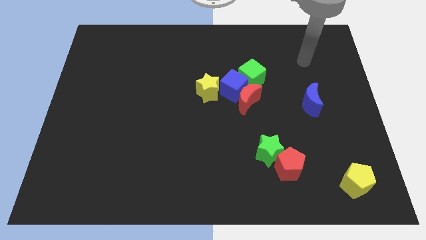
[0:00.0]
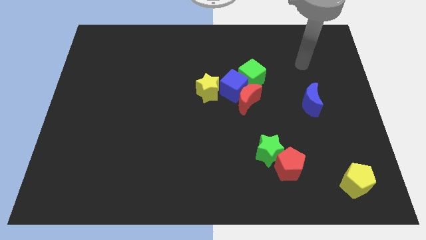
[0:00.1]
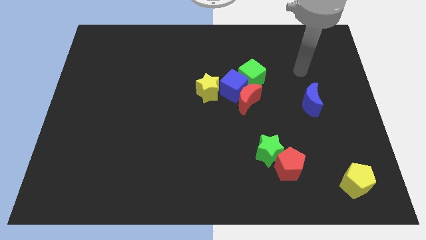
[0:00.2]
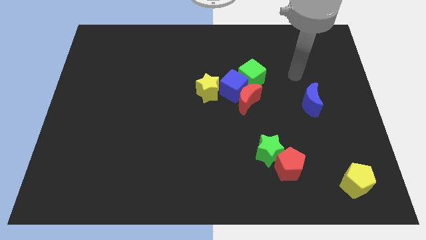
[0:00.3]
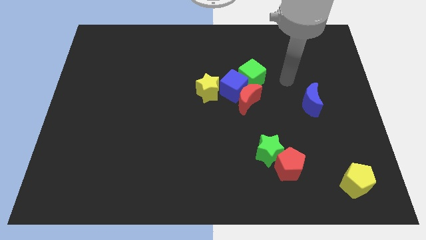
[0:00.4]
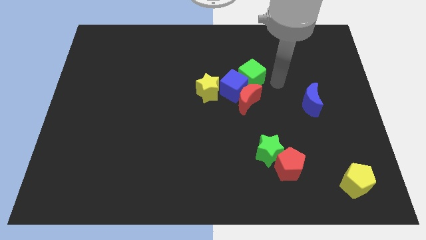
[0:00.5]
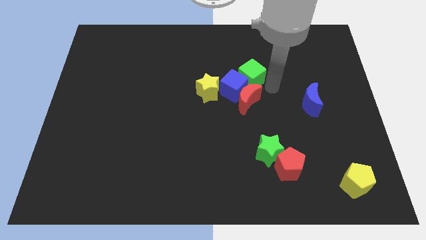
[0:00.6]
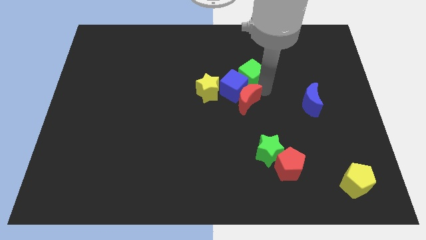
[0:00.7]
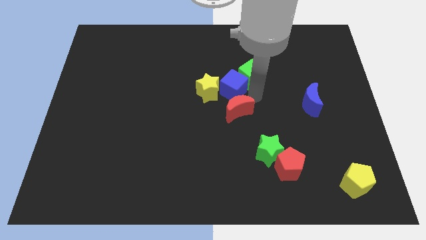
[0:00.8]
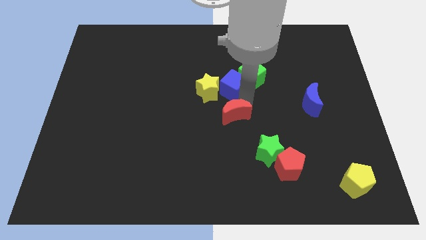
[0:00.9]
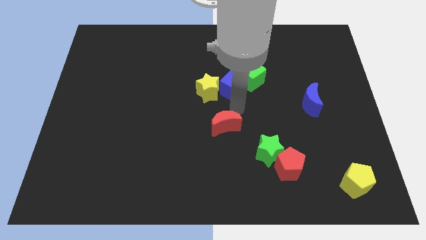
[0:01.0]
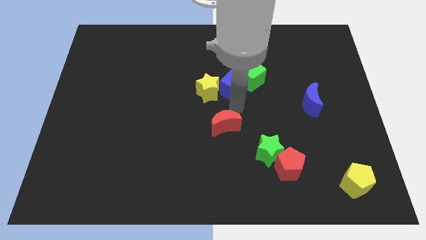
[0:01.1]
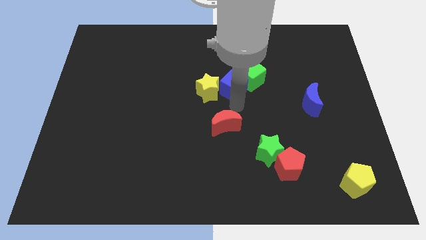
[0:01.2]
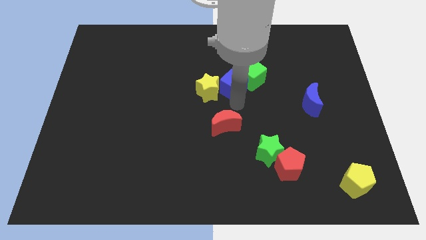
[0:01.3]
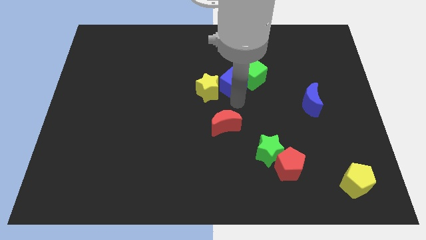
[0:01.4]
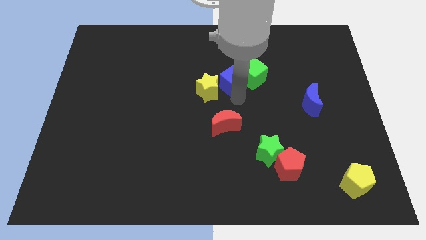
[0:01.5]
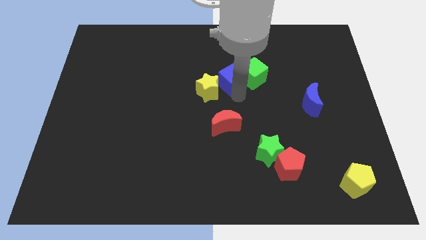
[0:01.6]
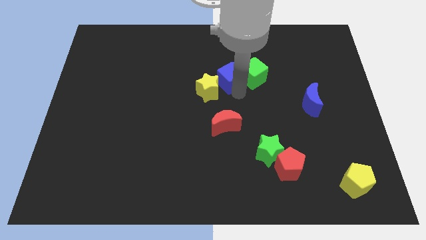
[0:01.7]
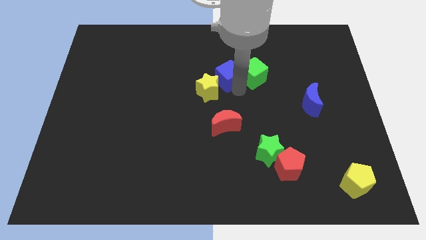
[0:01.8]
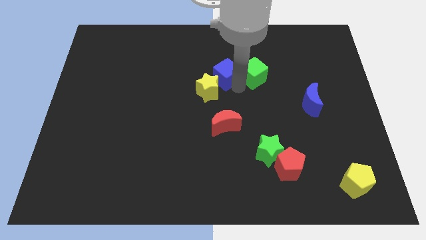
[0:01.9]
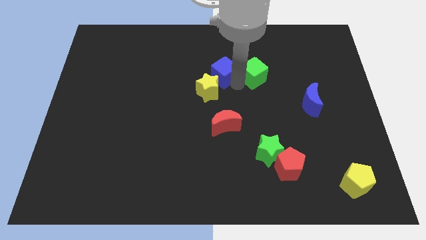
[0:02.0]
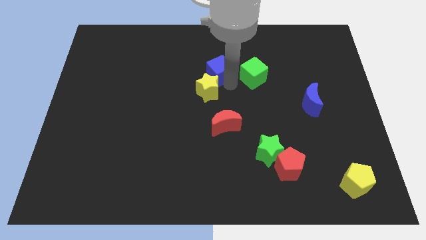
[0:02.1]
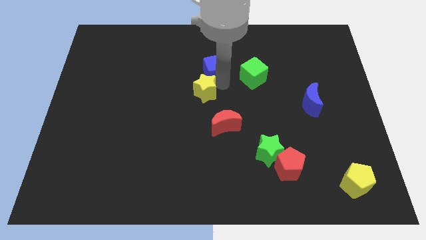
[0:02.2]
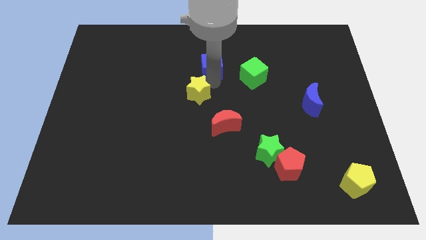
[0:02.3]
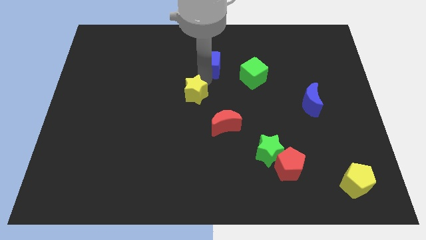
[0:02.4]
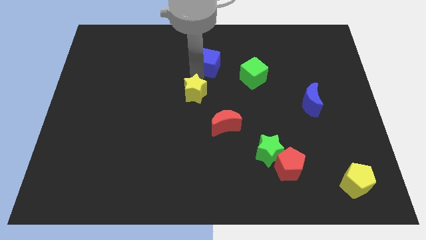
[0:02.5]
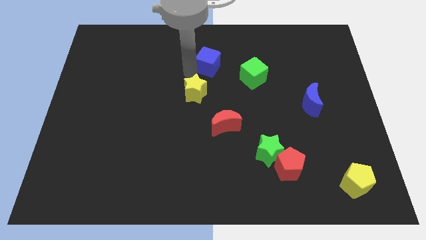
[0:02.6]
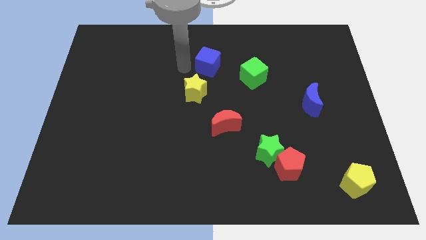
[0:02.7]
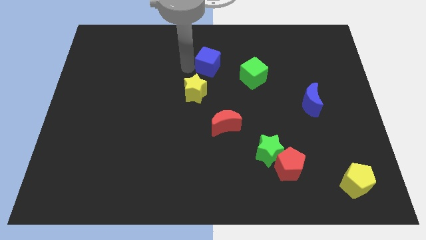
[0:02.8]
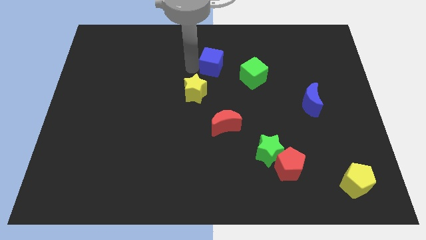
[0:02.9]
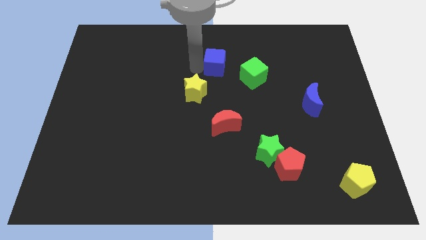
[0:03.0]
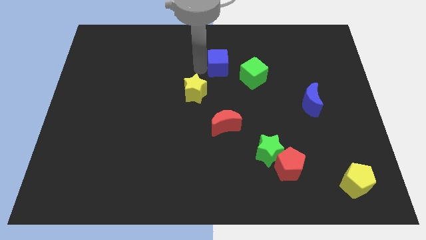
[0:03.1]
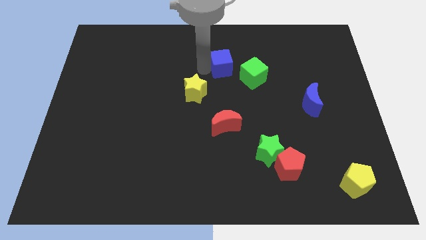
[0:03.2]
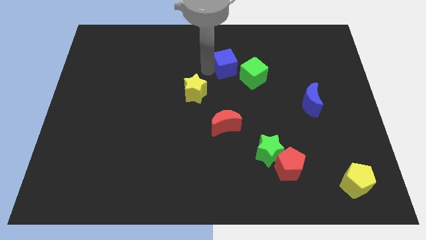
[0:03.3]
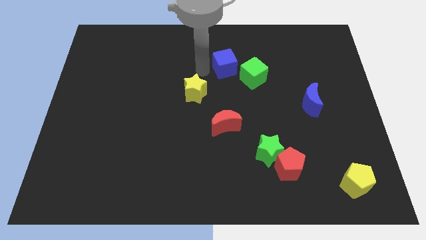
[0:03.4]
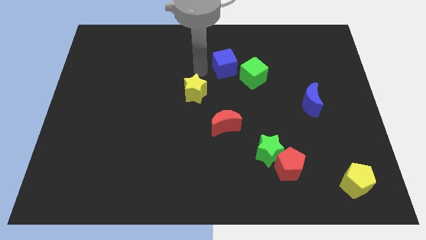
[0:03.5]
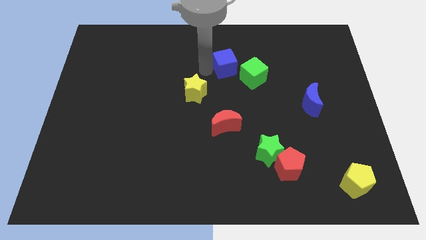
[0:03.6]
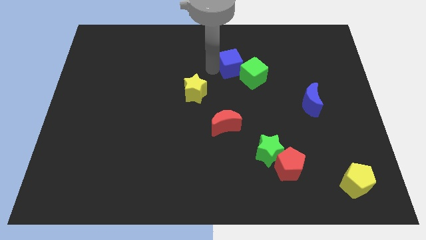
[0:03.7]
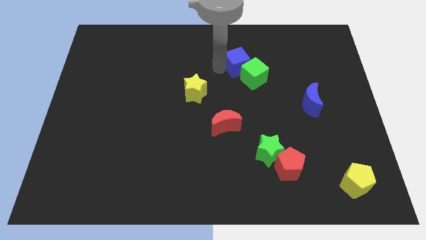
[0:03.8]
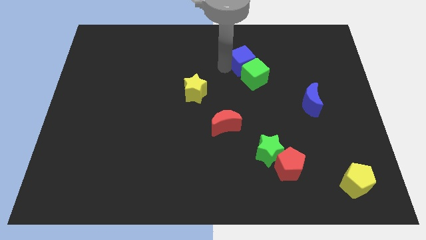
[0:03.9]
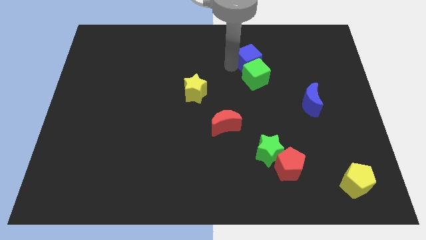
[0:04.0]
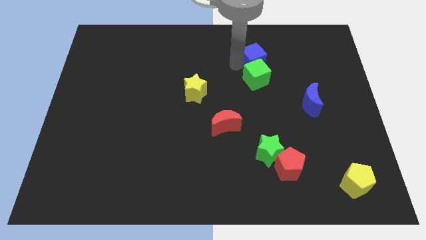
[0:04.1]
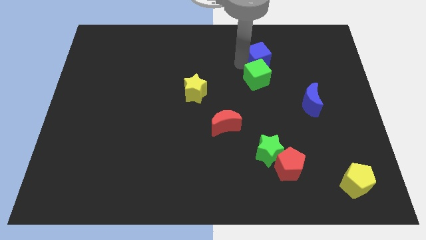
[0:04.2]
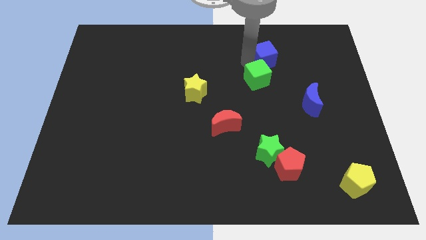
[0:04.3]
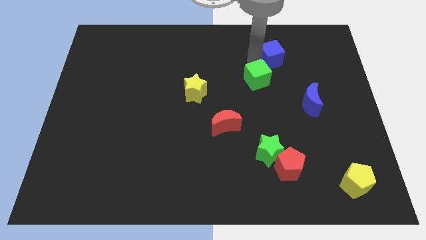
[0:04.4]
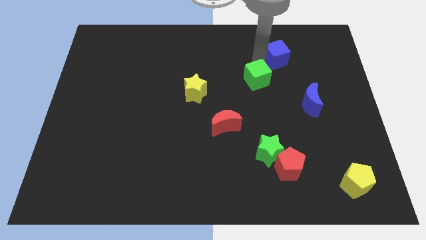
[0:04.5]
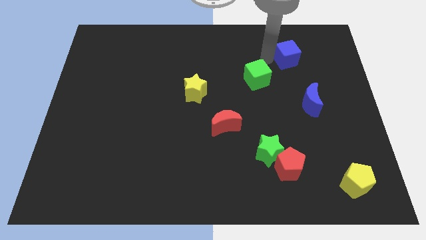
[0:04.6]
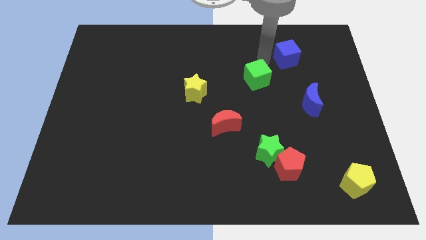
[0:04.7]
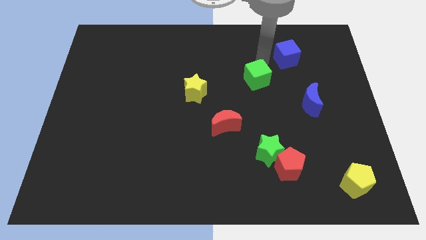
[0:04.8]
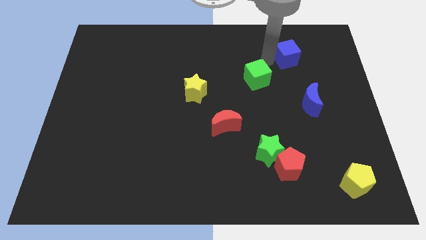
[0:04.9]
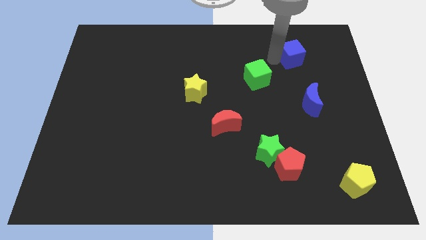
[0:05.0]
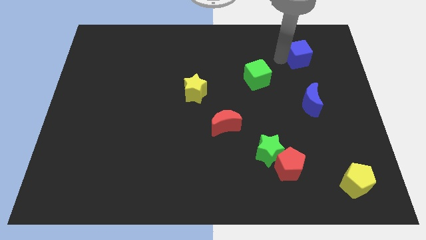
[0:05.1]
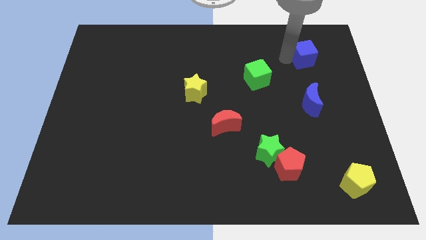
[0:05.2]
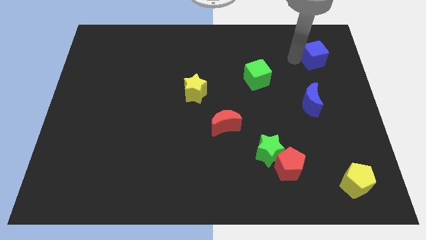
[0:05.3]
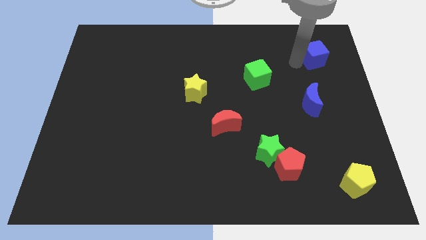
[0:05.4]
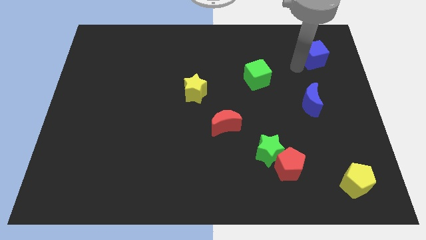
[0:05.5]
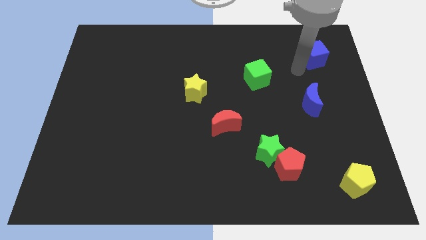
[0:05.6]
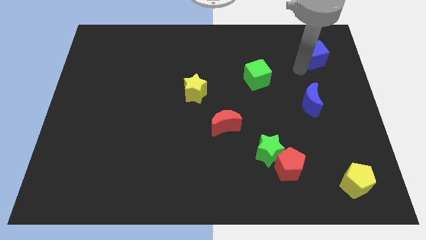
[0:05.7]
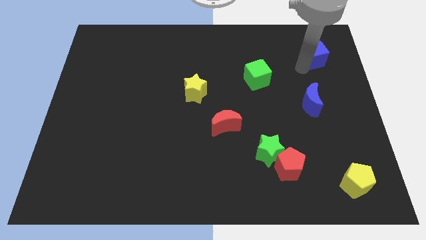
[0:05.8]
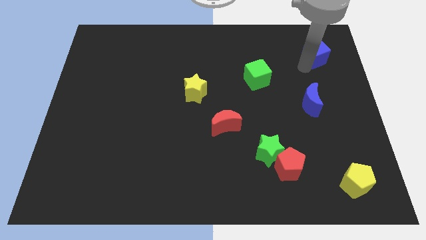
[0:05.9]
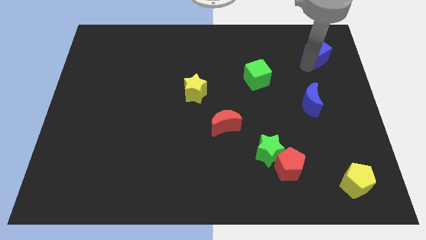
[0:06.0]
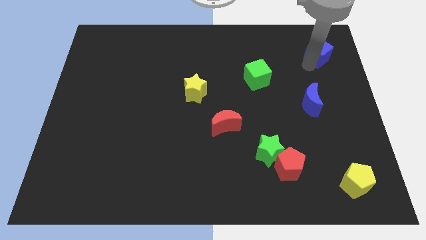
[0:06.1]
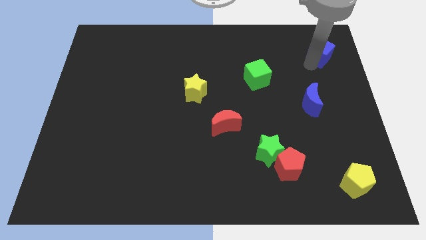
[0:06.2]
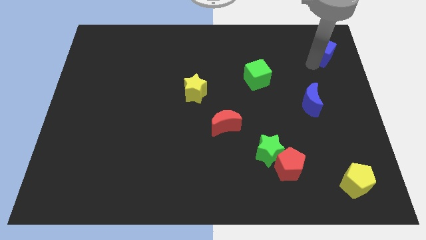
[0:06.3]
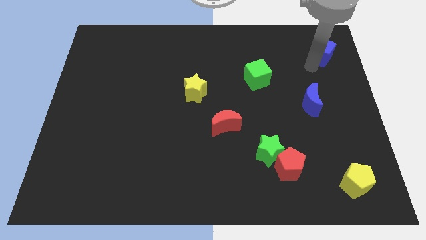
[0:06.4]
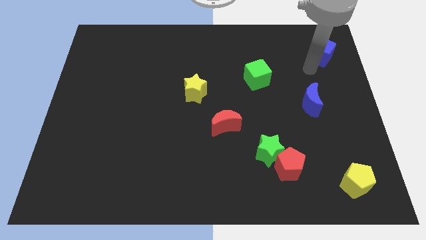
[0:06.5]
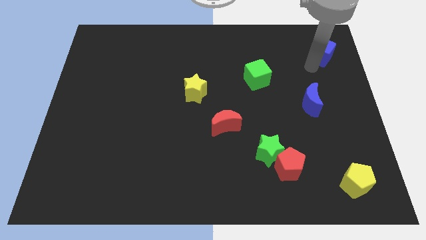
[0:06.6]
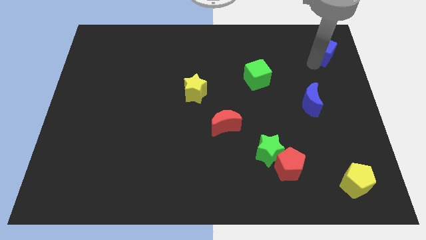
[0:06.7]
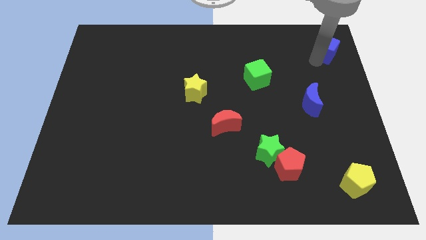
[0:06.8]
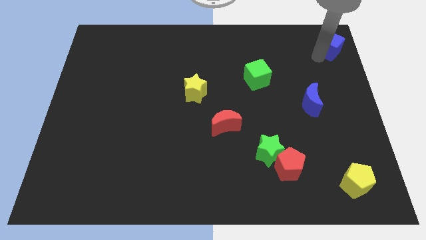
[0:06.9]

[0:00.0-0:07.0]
slide the blue cube to the top right of the board
